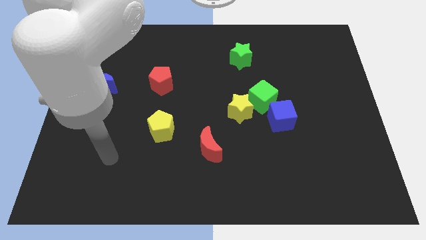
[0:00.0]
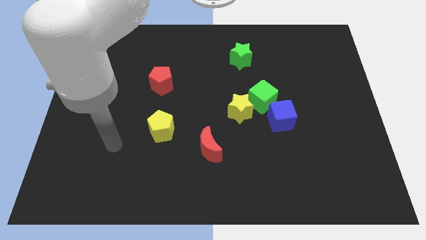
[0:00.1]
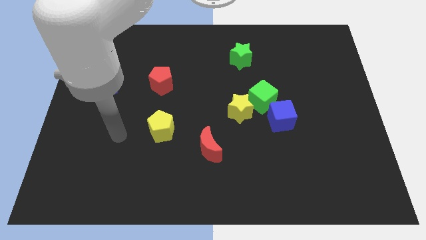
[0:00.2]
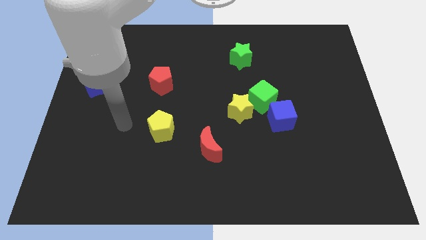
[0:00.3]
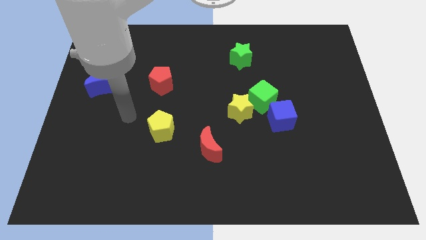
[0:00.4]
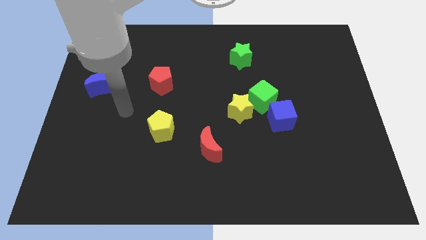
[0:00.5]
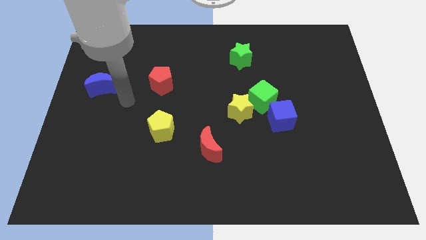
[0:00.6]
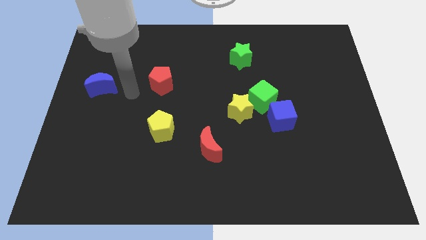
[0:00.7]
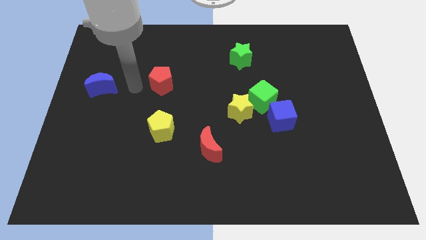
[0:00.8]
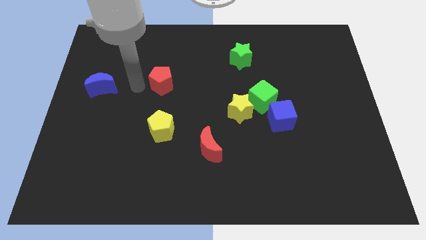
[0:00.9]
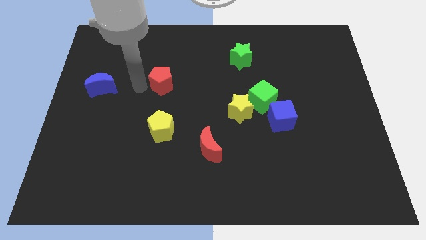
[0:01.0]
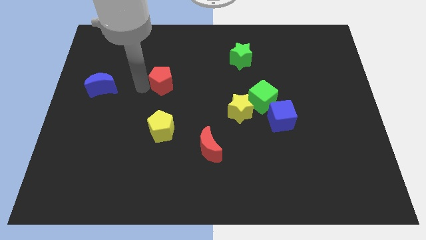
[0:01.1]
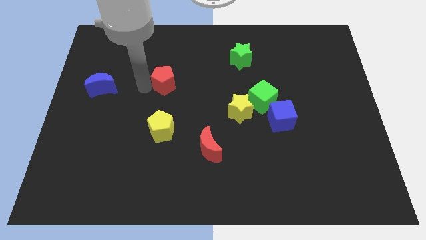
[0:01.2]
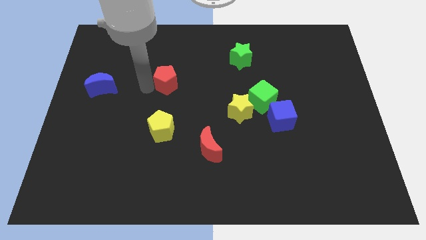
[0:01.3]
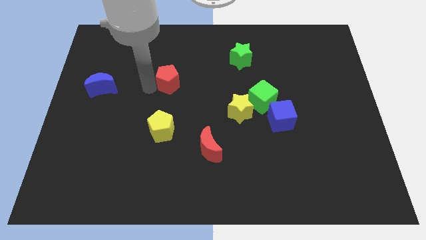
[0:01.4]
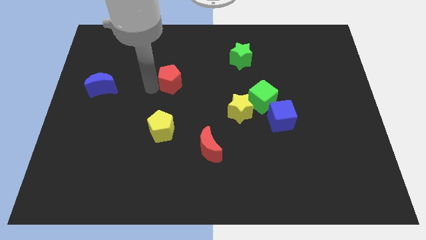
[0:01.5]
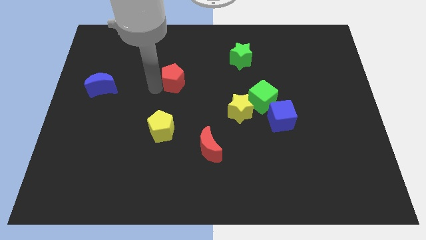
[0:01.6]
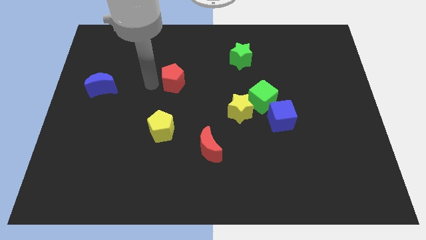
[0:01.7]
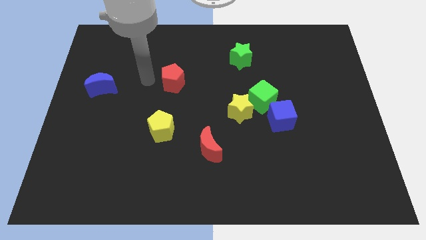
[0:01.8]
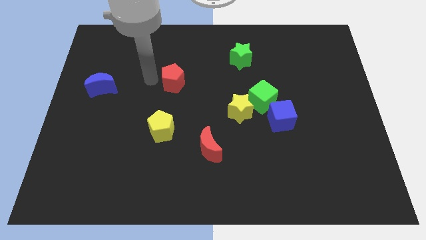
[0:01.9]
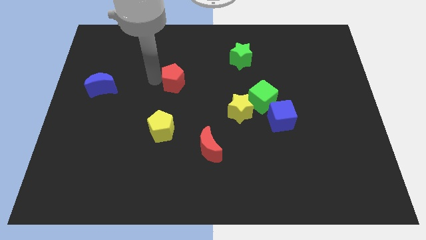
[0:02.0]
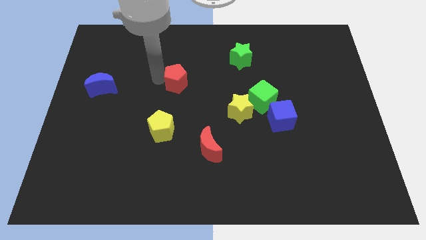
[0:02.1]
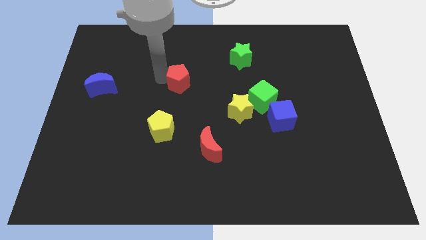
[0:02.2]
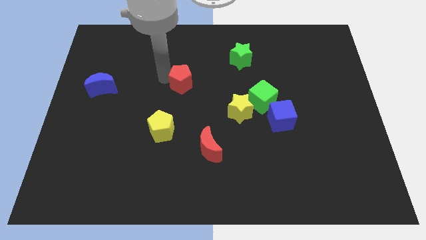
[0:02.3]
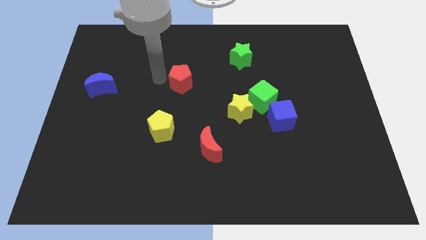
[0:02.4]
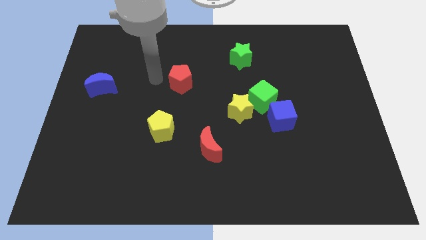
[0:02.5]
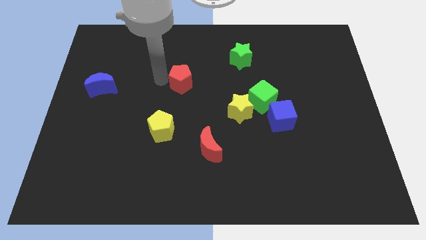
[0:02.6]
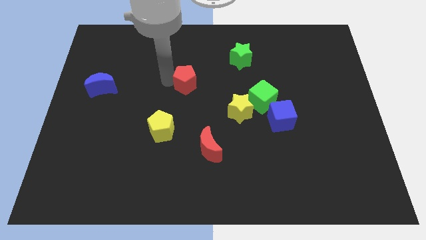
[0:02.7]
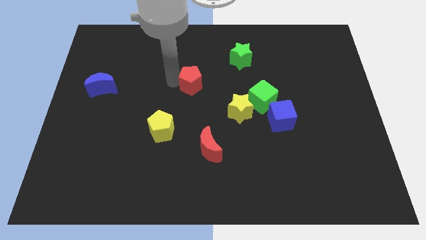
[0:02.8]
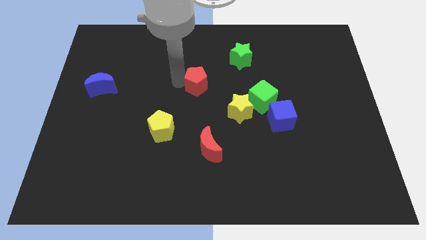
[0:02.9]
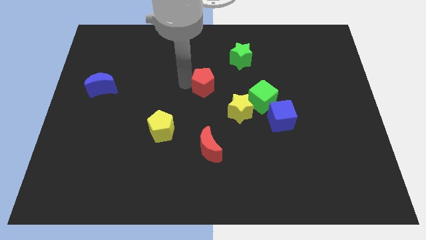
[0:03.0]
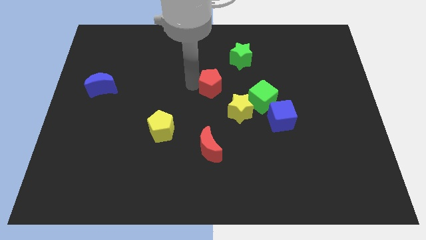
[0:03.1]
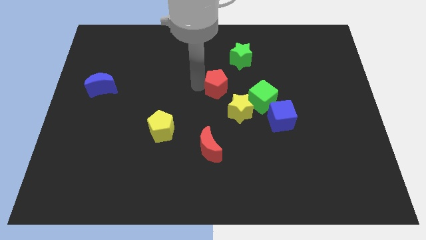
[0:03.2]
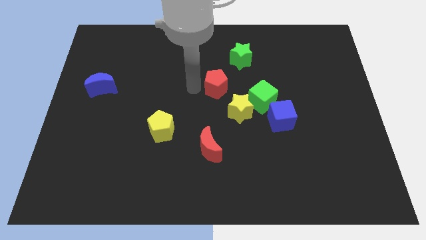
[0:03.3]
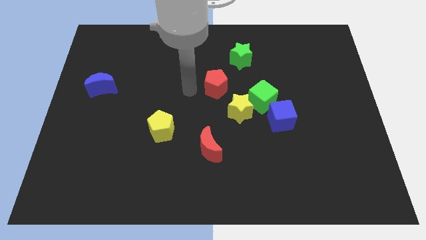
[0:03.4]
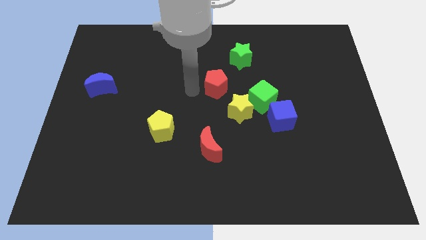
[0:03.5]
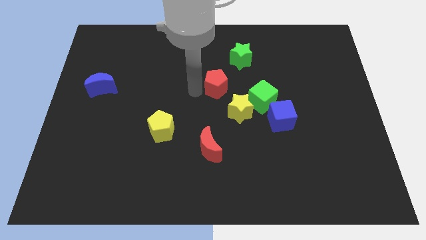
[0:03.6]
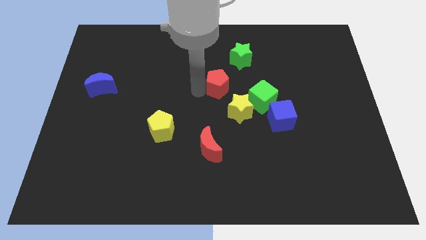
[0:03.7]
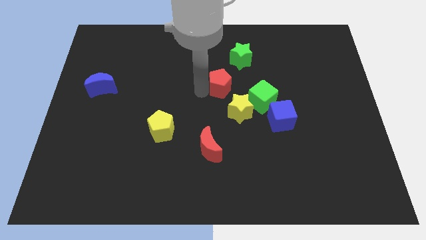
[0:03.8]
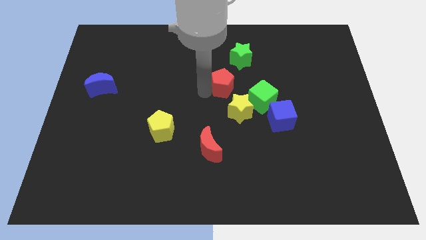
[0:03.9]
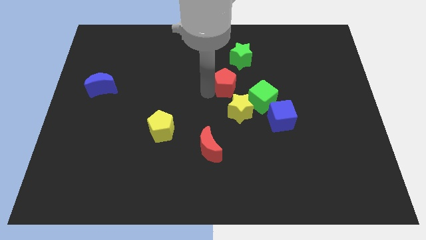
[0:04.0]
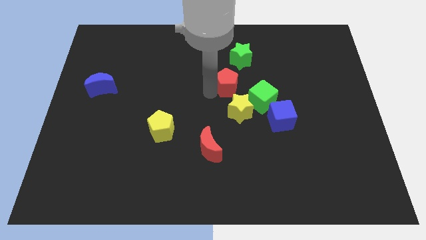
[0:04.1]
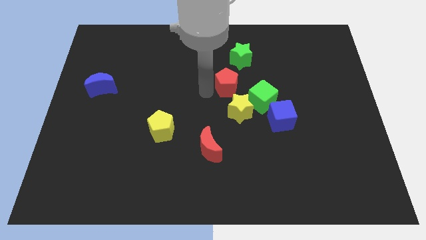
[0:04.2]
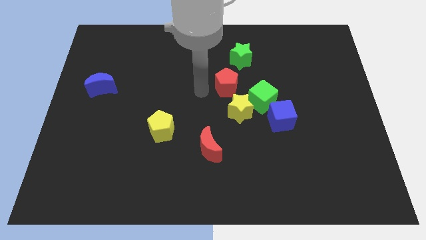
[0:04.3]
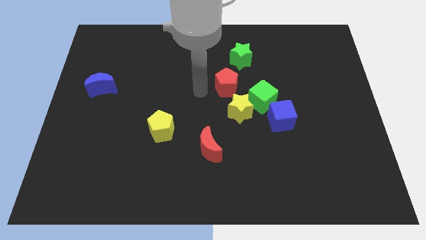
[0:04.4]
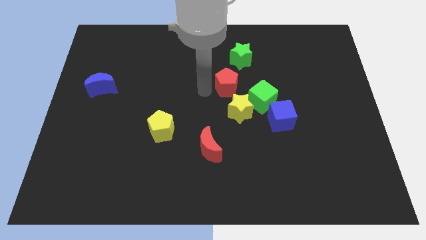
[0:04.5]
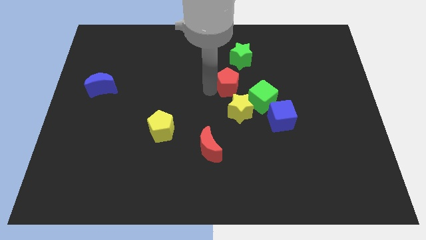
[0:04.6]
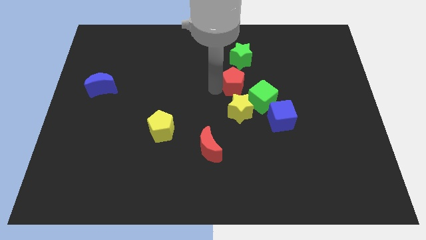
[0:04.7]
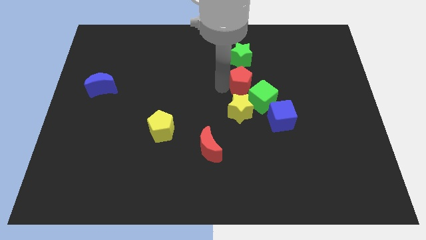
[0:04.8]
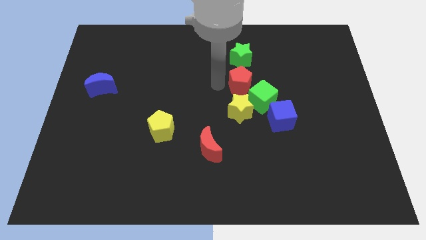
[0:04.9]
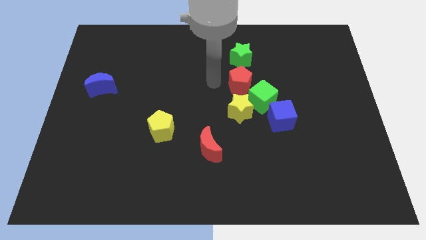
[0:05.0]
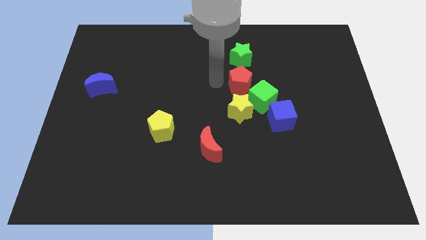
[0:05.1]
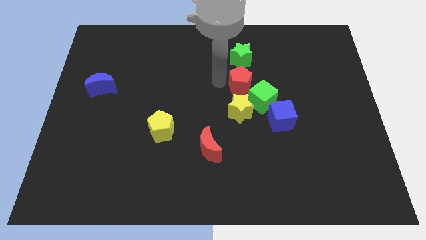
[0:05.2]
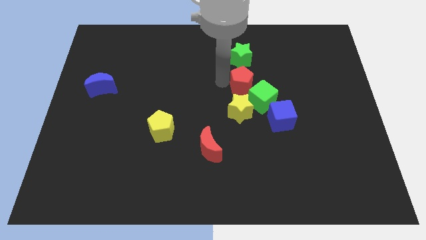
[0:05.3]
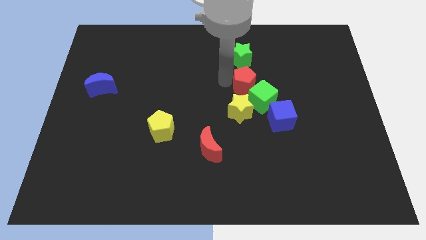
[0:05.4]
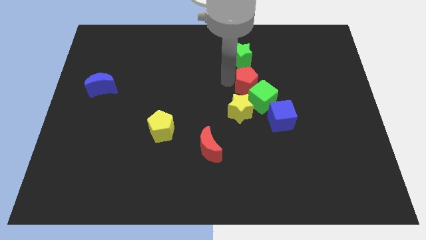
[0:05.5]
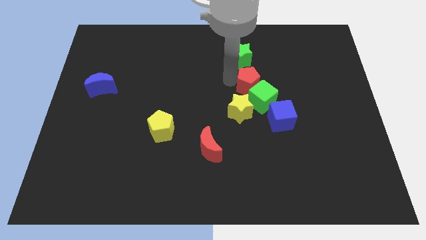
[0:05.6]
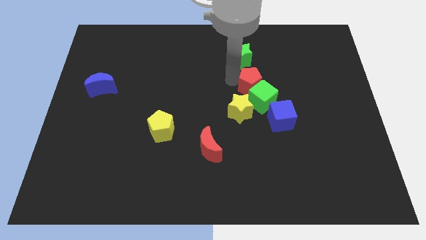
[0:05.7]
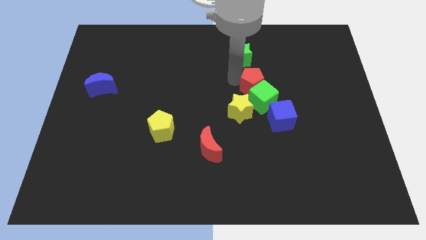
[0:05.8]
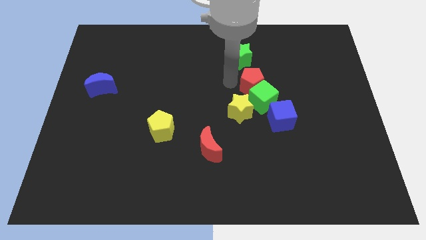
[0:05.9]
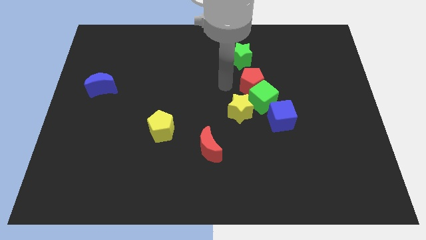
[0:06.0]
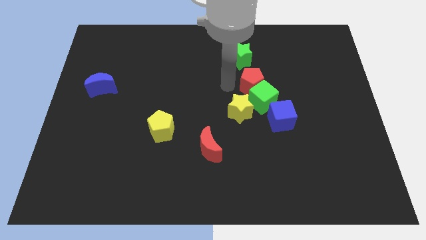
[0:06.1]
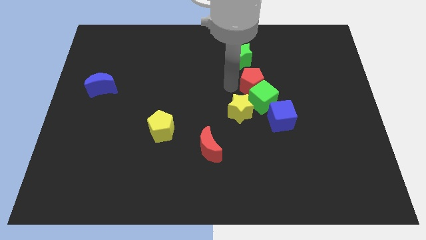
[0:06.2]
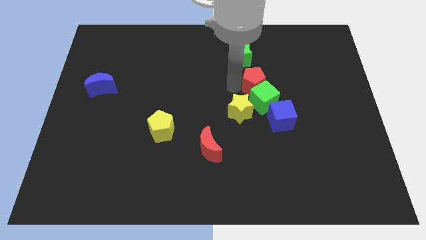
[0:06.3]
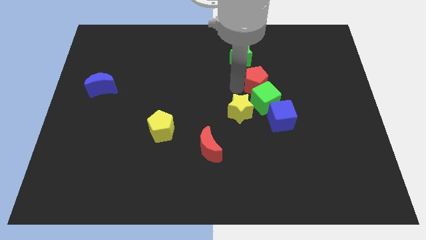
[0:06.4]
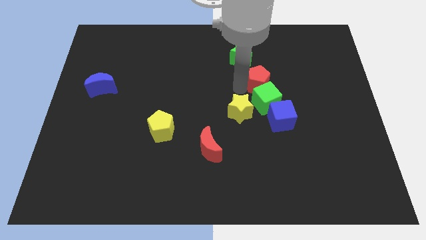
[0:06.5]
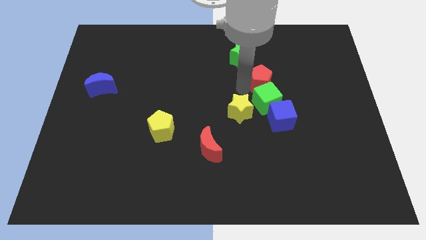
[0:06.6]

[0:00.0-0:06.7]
move the red pentagon diagonally up and to the right of the green cube

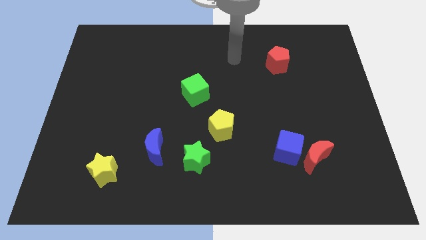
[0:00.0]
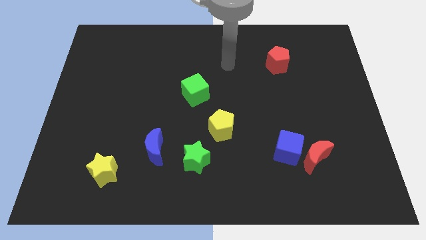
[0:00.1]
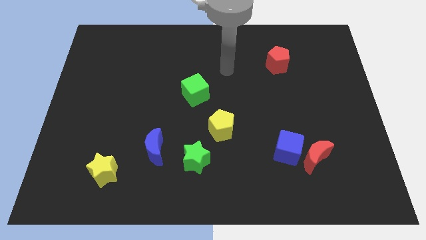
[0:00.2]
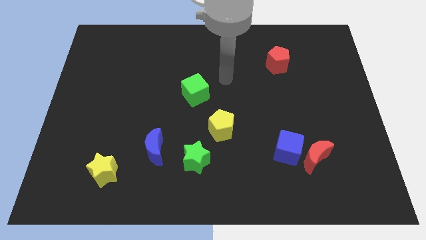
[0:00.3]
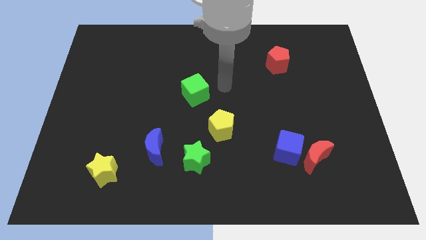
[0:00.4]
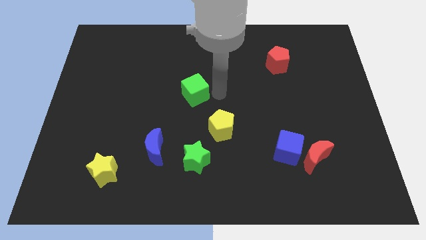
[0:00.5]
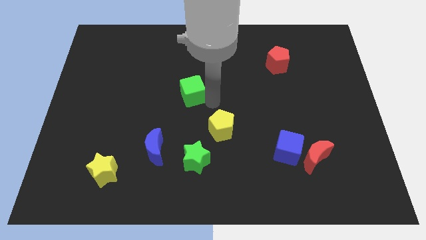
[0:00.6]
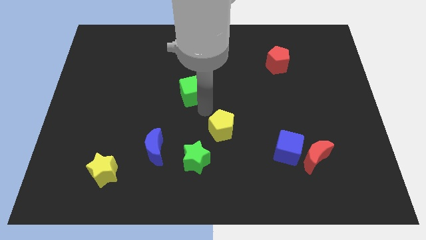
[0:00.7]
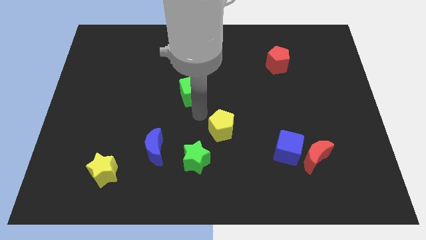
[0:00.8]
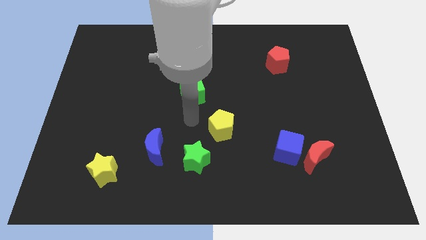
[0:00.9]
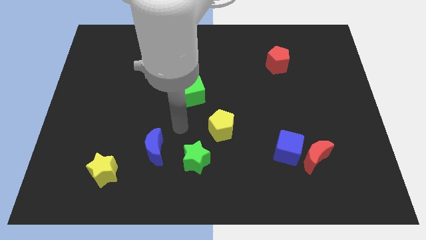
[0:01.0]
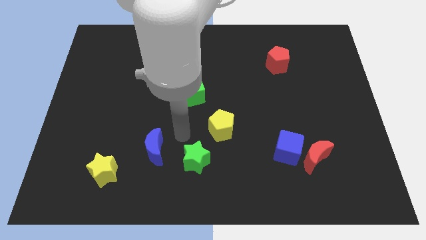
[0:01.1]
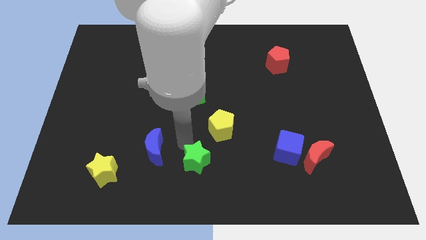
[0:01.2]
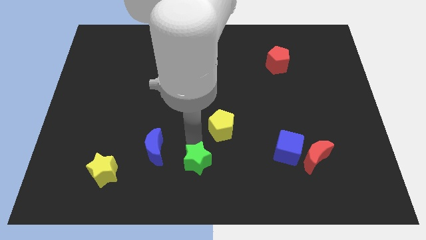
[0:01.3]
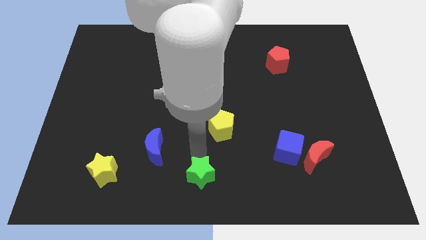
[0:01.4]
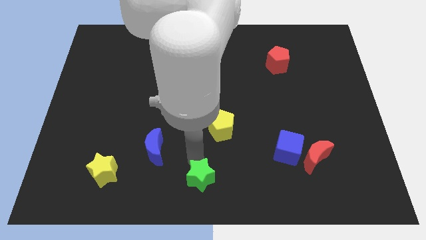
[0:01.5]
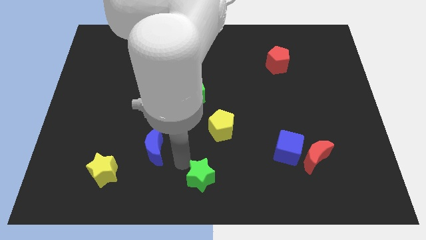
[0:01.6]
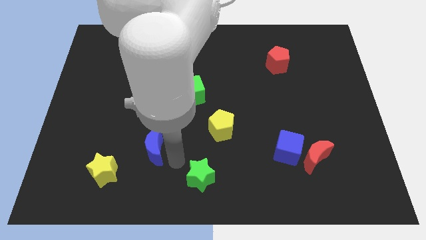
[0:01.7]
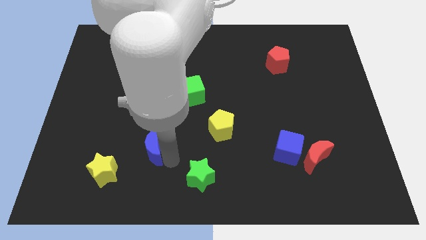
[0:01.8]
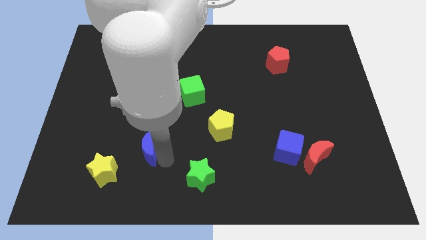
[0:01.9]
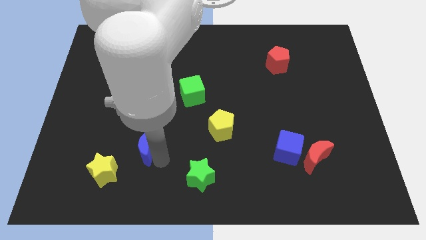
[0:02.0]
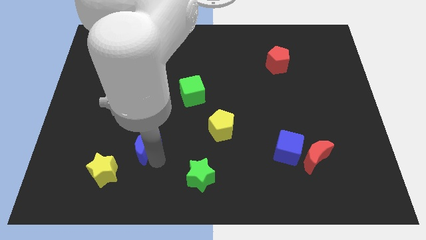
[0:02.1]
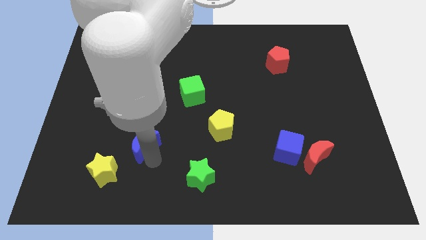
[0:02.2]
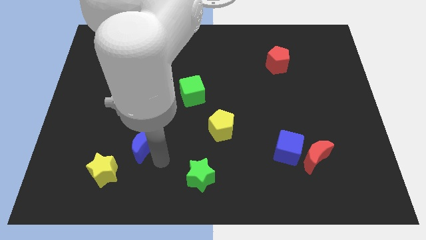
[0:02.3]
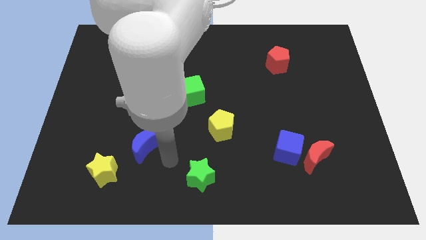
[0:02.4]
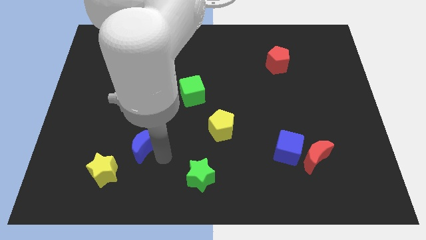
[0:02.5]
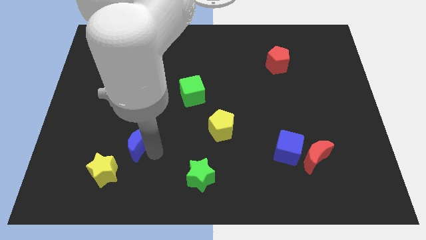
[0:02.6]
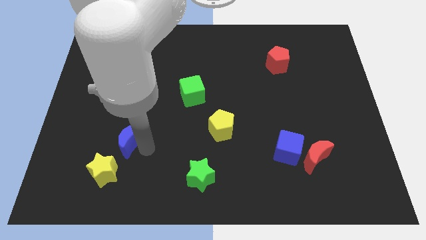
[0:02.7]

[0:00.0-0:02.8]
move the blue moon to the top side of the yellow star
